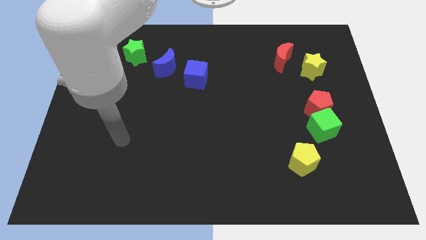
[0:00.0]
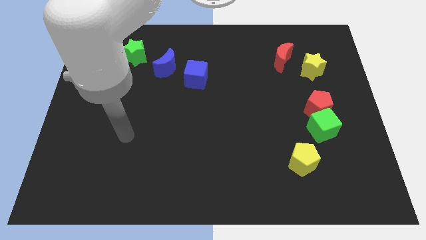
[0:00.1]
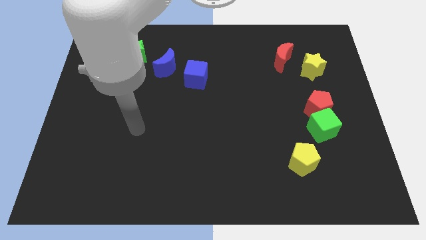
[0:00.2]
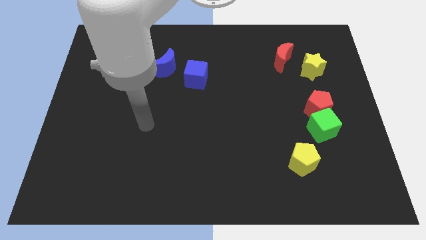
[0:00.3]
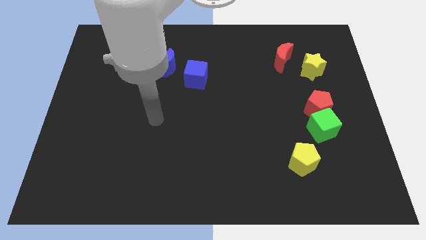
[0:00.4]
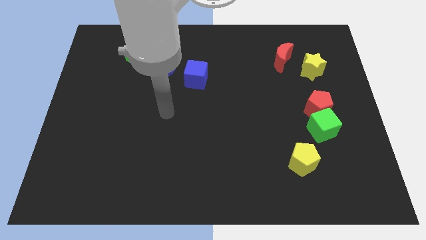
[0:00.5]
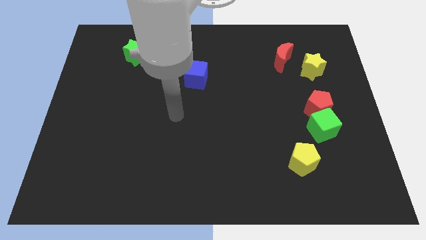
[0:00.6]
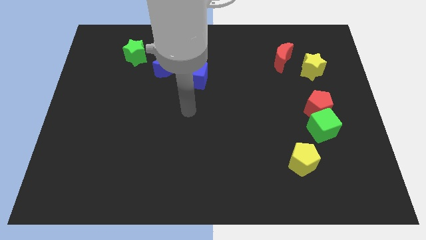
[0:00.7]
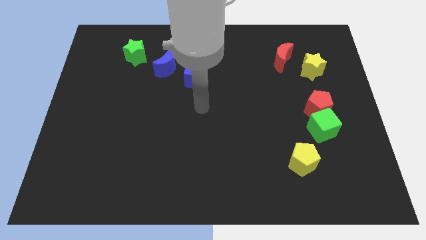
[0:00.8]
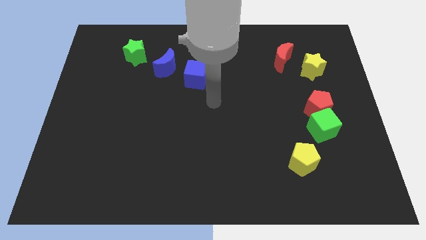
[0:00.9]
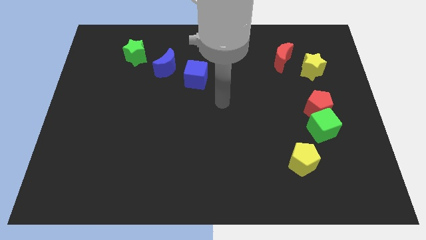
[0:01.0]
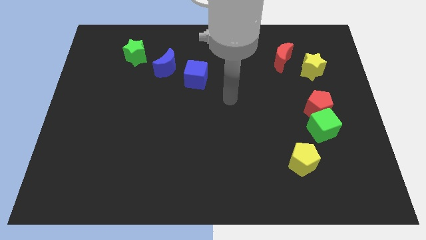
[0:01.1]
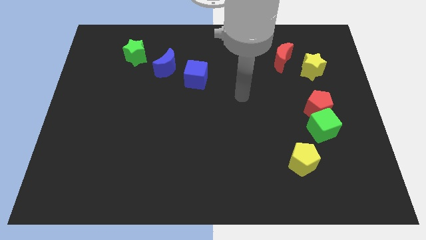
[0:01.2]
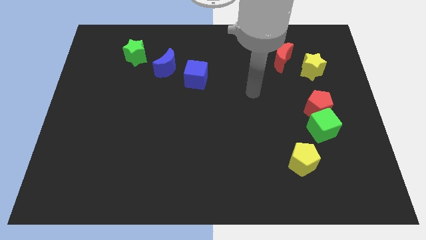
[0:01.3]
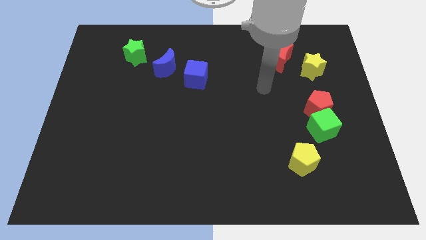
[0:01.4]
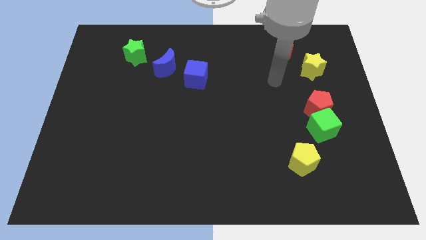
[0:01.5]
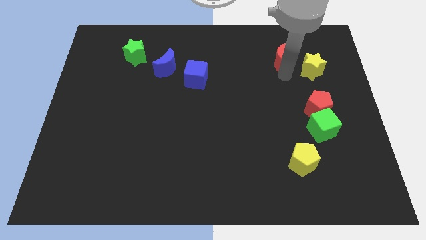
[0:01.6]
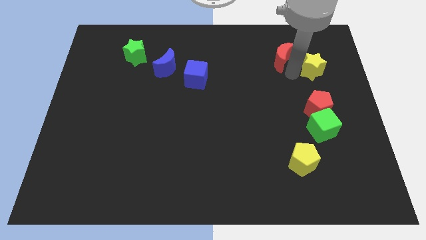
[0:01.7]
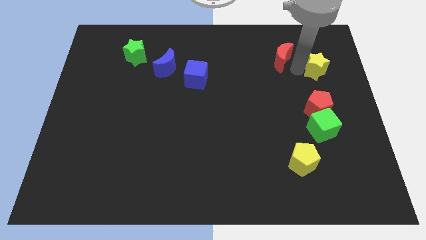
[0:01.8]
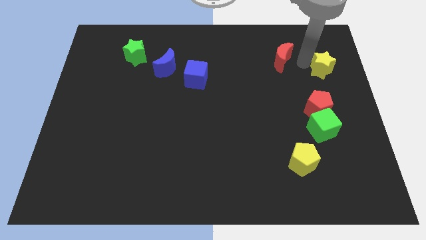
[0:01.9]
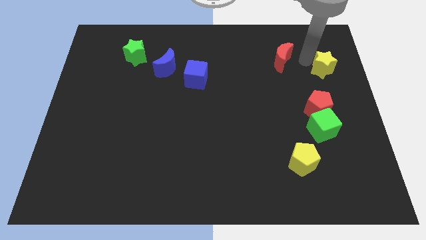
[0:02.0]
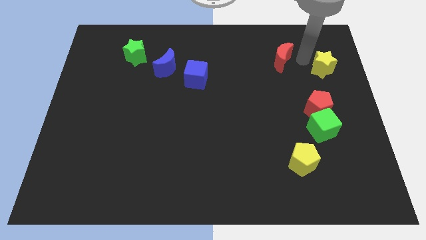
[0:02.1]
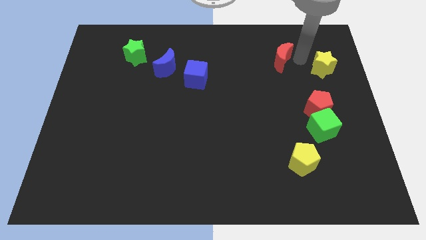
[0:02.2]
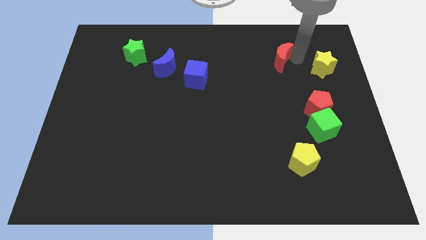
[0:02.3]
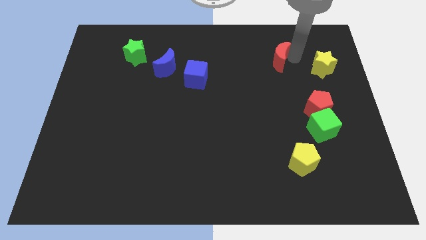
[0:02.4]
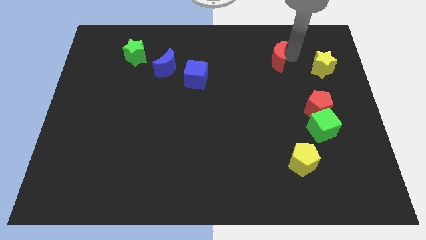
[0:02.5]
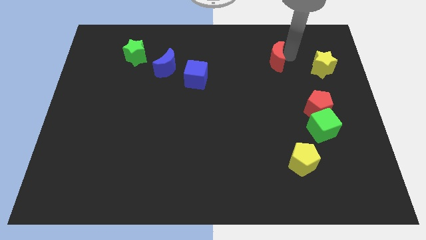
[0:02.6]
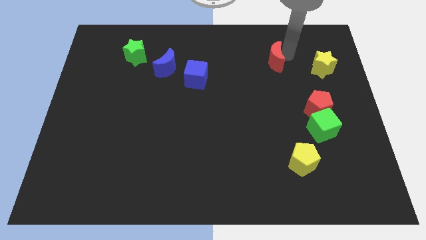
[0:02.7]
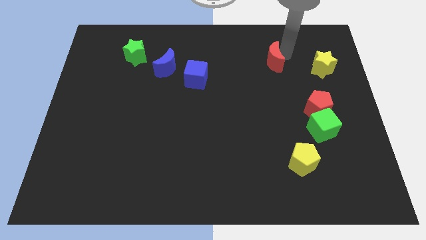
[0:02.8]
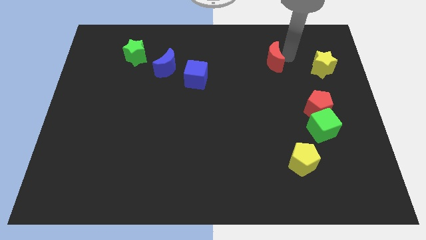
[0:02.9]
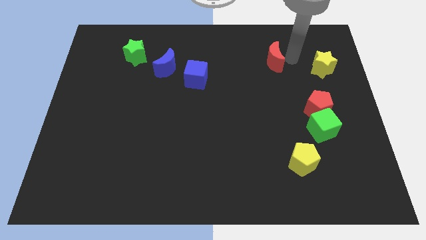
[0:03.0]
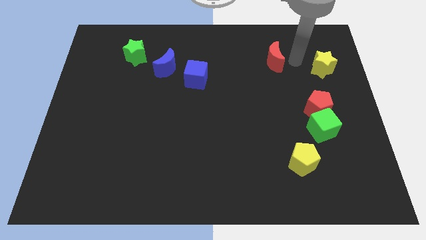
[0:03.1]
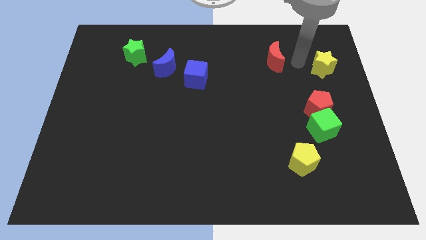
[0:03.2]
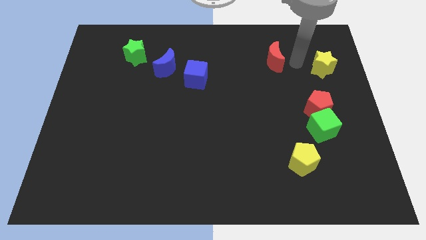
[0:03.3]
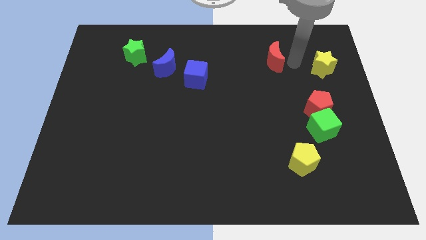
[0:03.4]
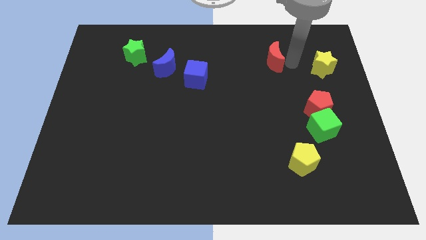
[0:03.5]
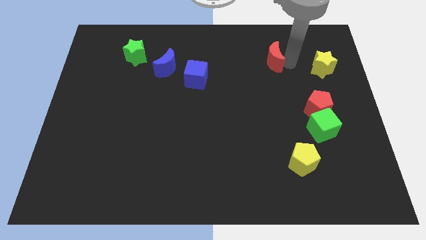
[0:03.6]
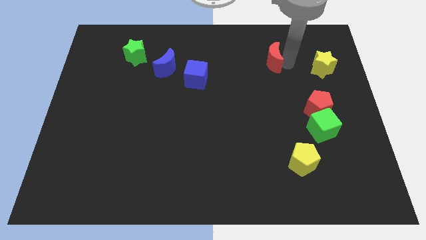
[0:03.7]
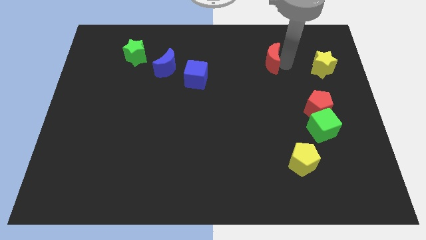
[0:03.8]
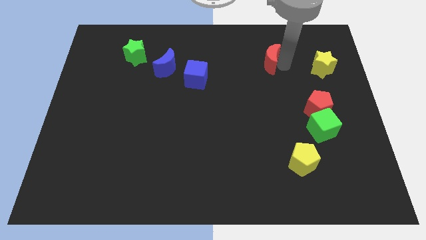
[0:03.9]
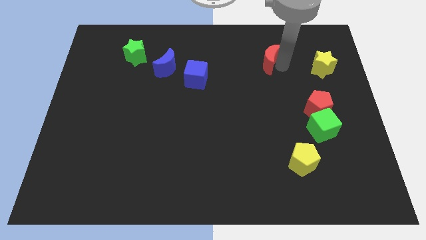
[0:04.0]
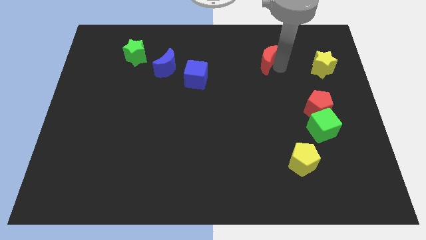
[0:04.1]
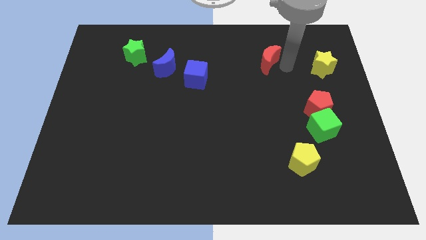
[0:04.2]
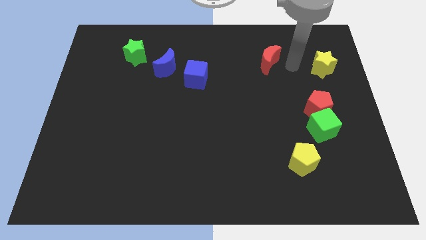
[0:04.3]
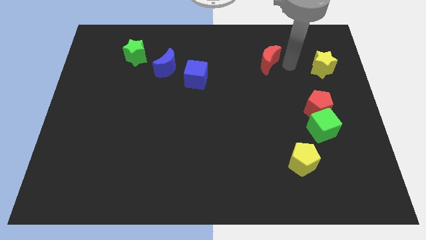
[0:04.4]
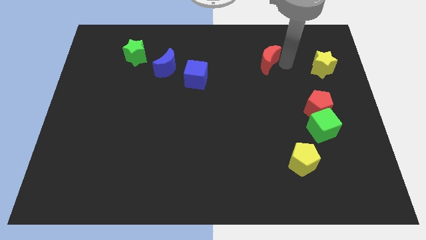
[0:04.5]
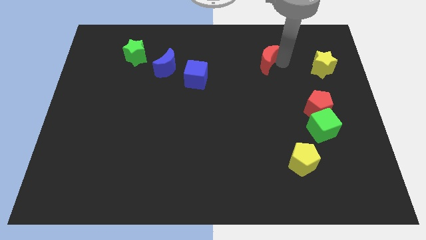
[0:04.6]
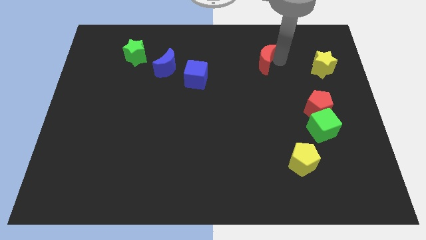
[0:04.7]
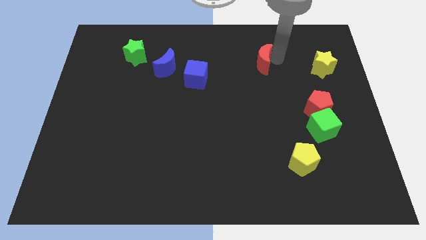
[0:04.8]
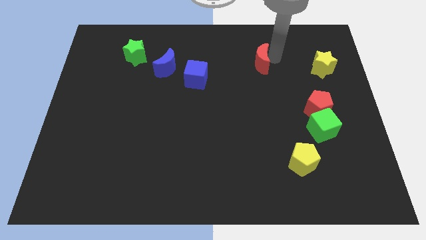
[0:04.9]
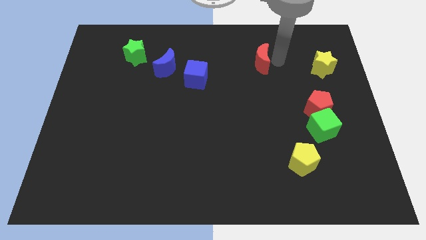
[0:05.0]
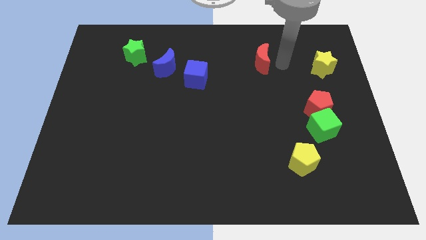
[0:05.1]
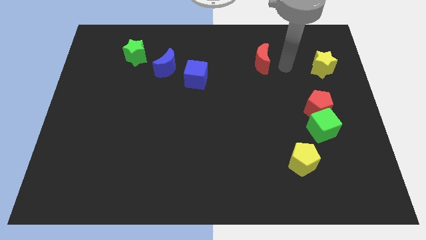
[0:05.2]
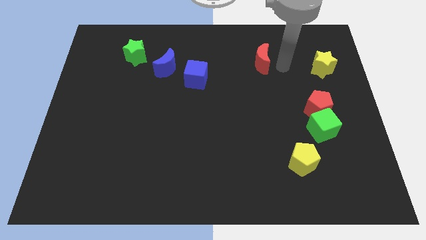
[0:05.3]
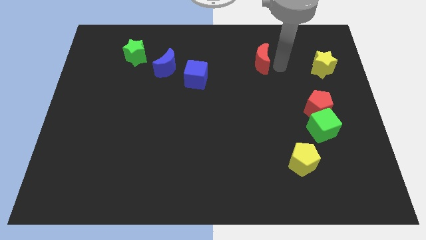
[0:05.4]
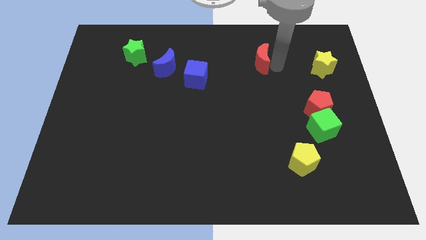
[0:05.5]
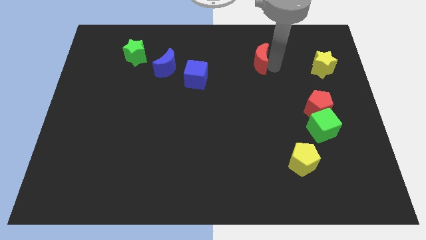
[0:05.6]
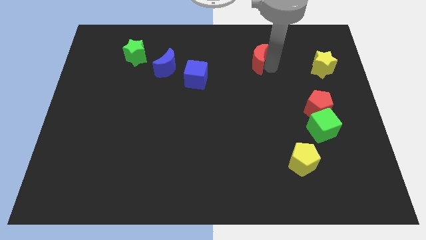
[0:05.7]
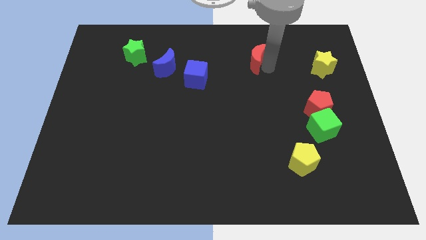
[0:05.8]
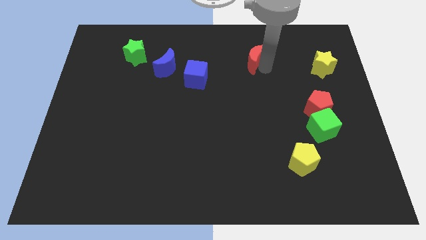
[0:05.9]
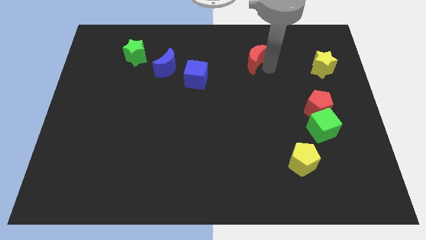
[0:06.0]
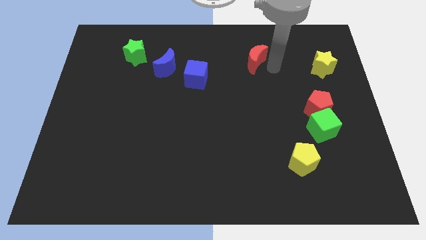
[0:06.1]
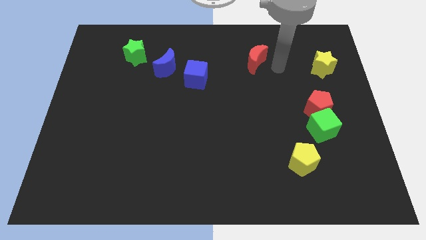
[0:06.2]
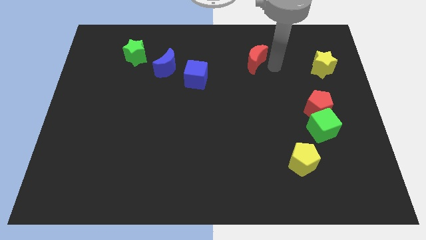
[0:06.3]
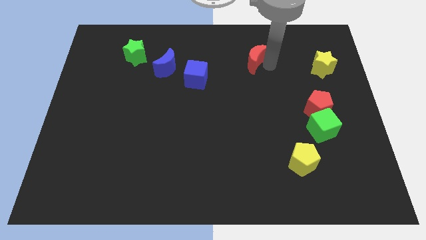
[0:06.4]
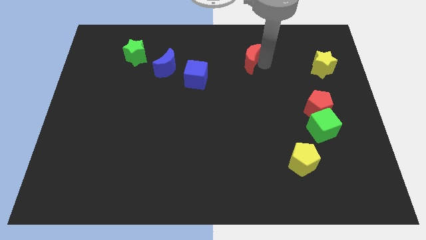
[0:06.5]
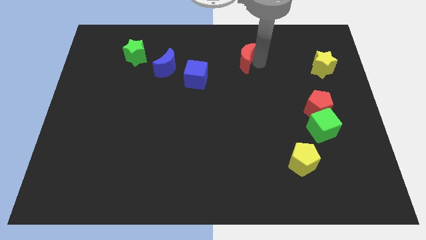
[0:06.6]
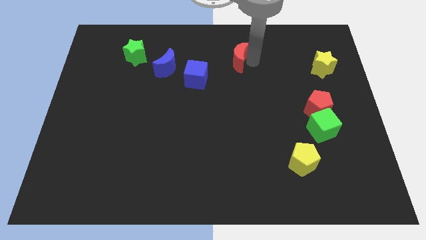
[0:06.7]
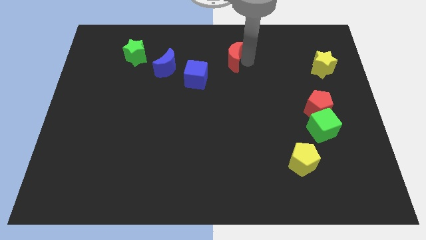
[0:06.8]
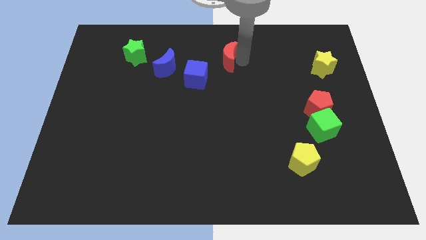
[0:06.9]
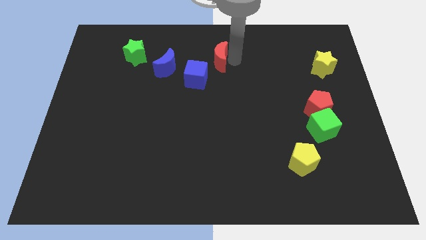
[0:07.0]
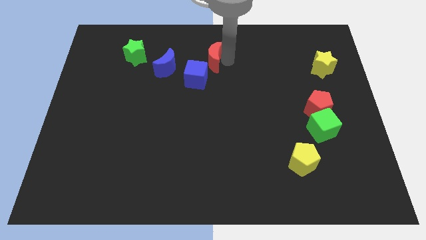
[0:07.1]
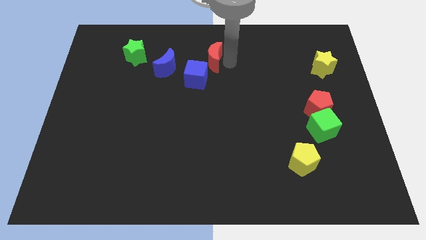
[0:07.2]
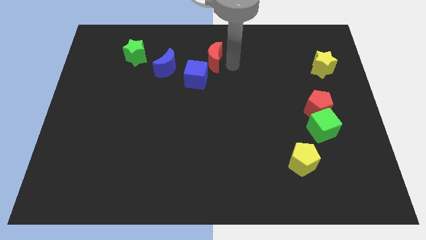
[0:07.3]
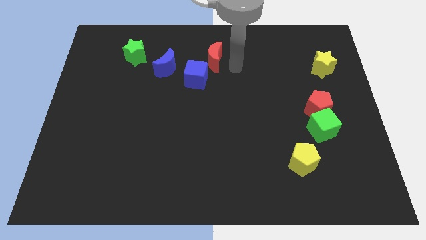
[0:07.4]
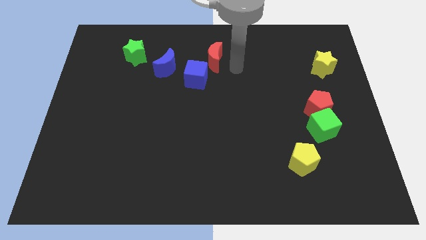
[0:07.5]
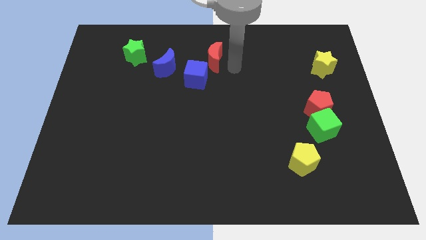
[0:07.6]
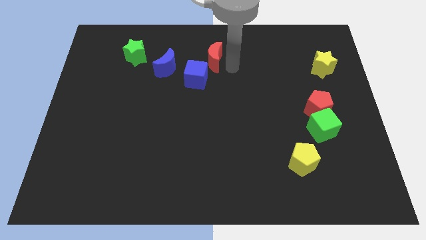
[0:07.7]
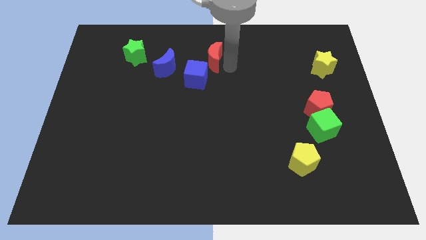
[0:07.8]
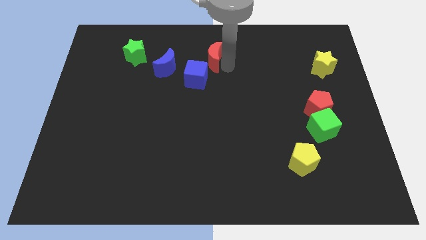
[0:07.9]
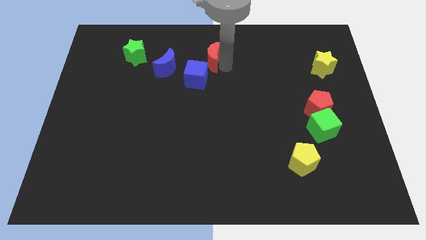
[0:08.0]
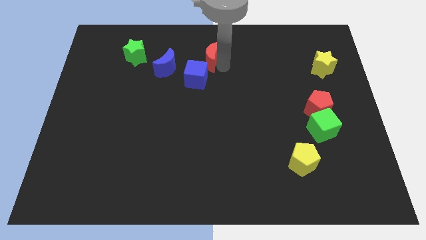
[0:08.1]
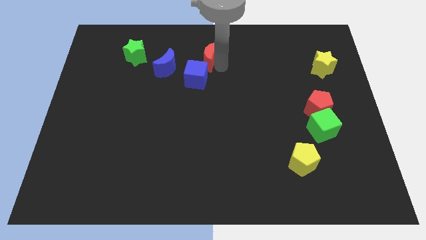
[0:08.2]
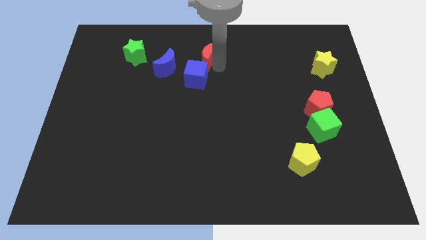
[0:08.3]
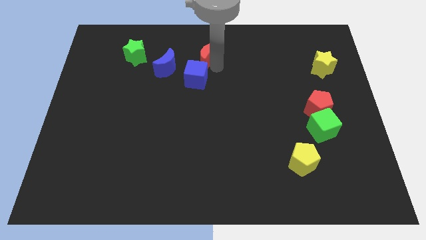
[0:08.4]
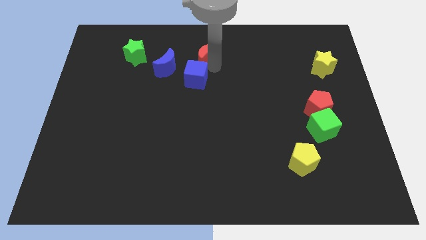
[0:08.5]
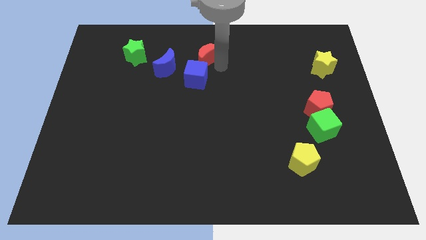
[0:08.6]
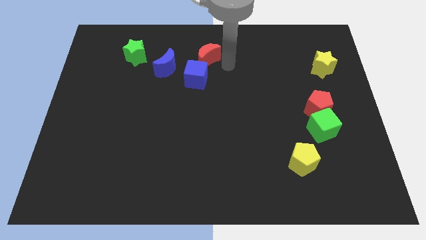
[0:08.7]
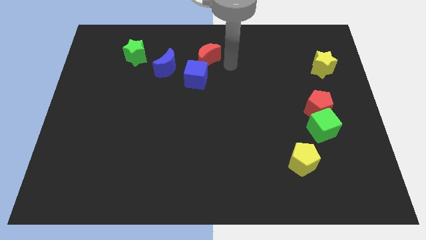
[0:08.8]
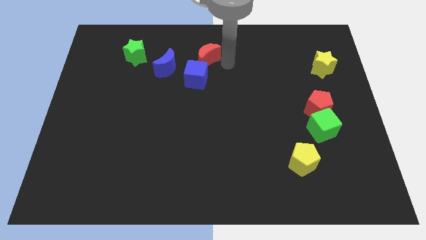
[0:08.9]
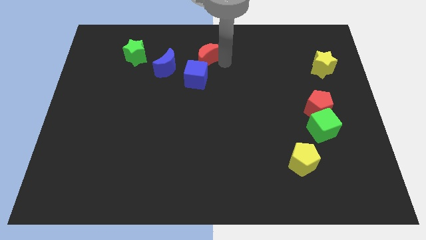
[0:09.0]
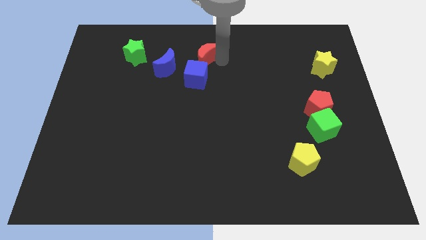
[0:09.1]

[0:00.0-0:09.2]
move the red moon to the left
